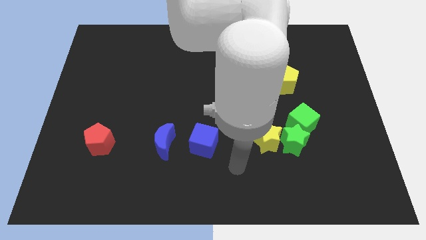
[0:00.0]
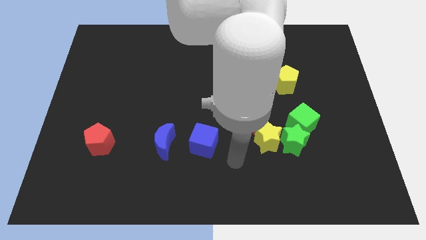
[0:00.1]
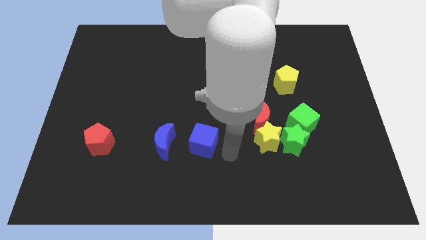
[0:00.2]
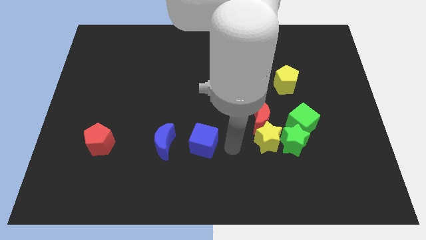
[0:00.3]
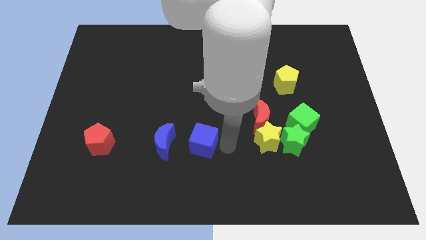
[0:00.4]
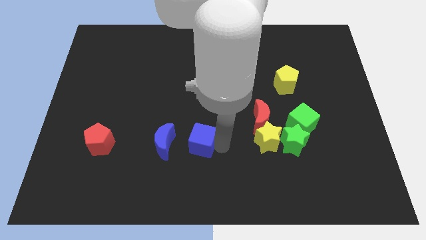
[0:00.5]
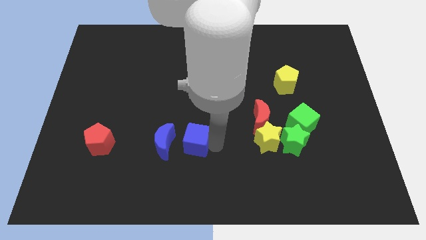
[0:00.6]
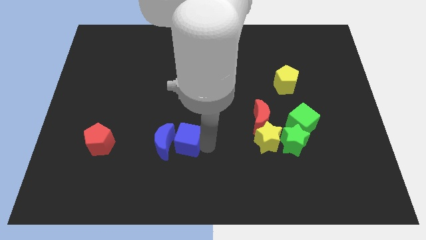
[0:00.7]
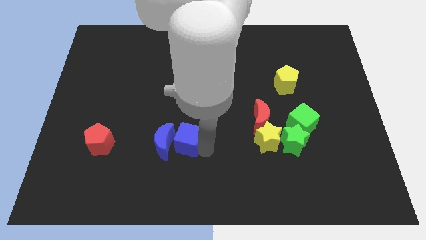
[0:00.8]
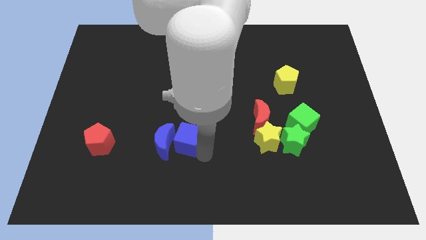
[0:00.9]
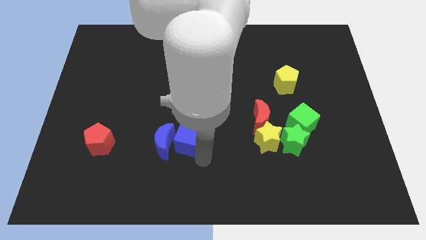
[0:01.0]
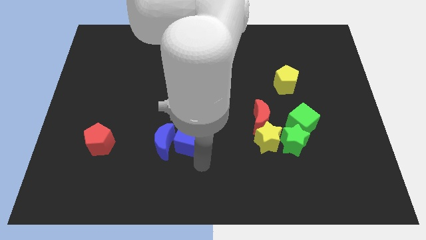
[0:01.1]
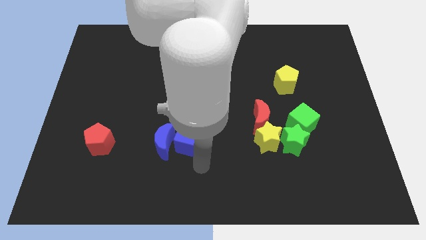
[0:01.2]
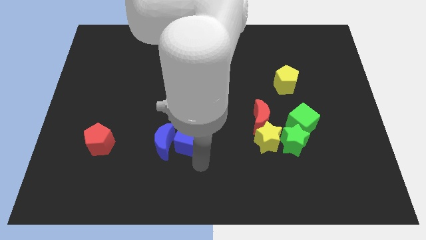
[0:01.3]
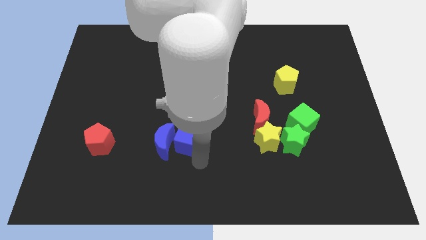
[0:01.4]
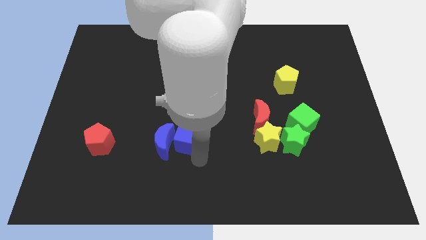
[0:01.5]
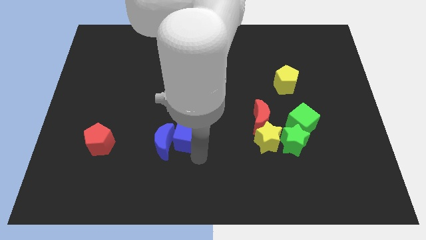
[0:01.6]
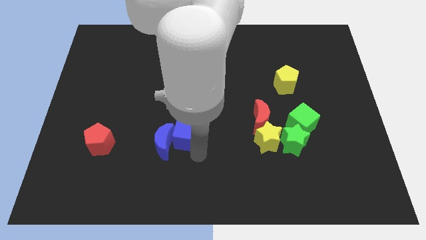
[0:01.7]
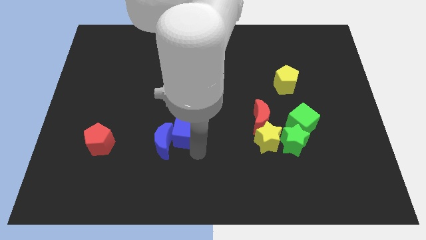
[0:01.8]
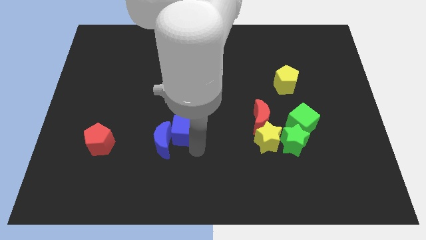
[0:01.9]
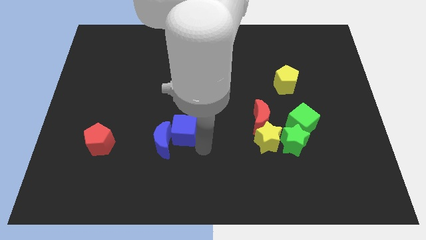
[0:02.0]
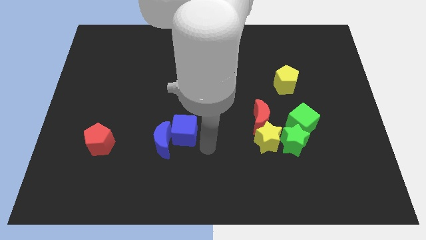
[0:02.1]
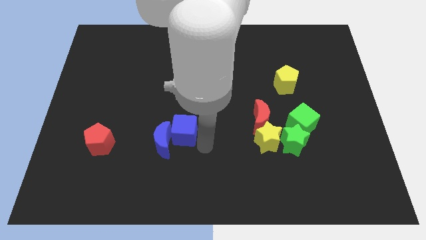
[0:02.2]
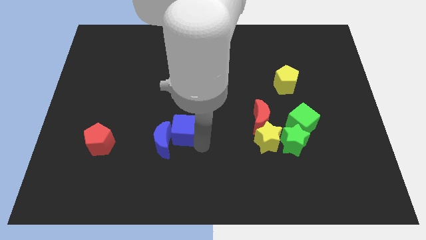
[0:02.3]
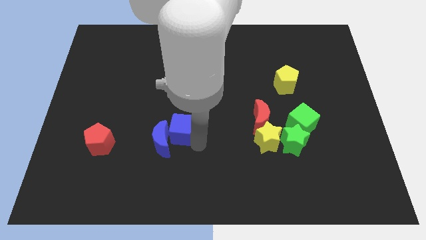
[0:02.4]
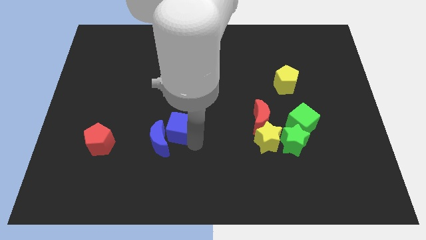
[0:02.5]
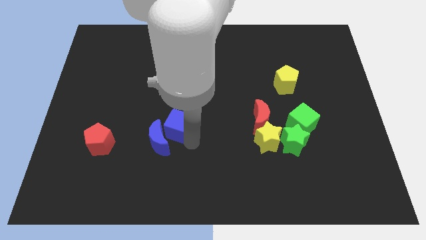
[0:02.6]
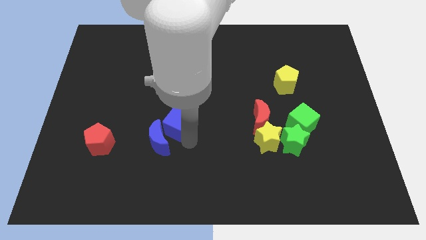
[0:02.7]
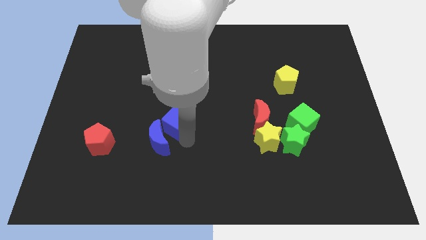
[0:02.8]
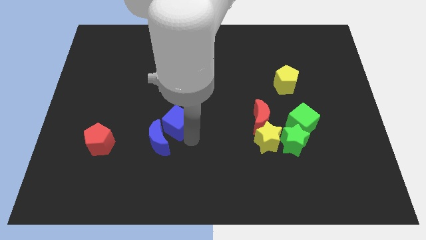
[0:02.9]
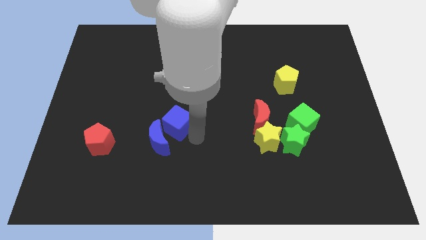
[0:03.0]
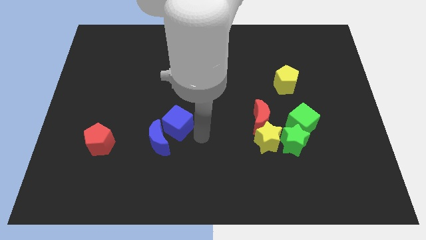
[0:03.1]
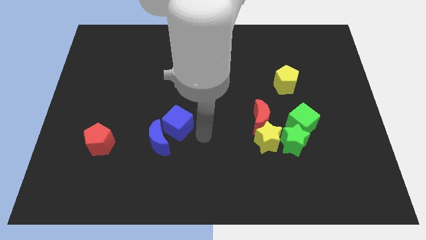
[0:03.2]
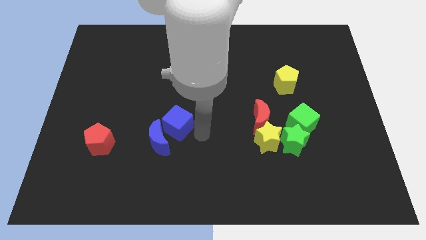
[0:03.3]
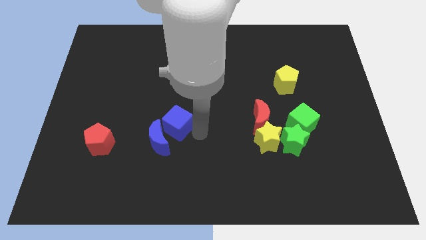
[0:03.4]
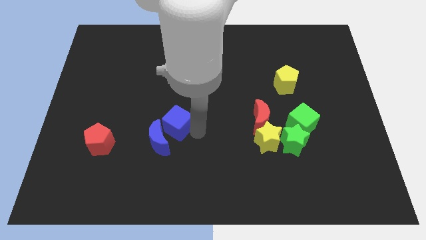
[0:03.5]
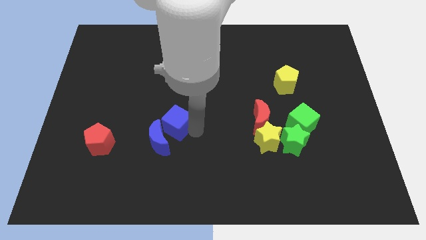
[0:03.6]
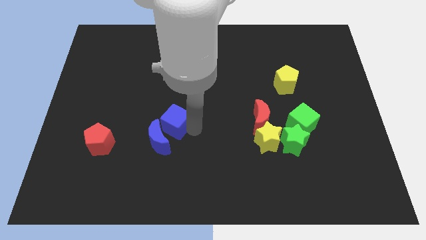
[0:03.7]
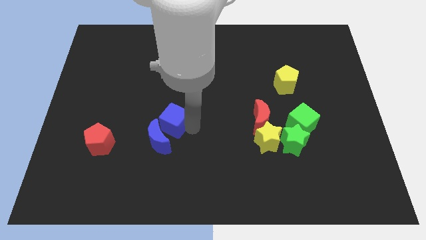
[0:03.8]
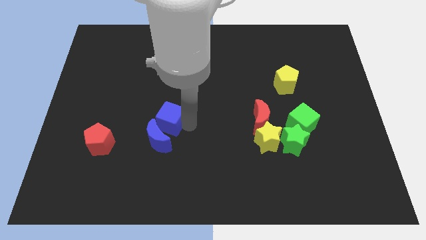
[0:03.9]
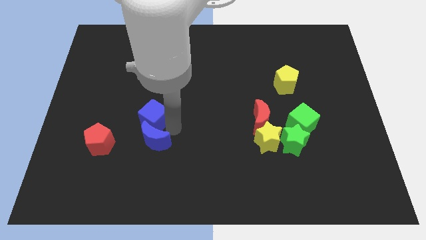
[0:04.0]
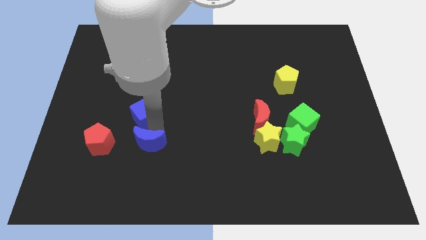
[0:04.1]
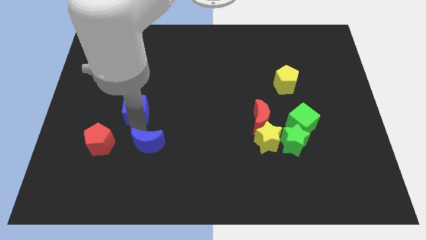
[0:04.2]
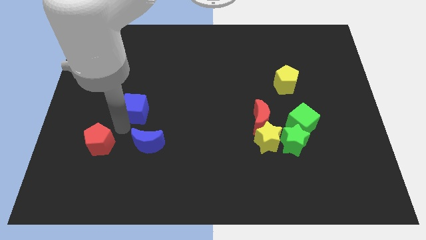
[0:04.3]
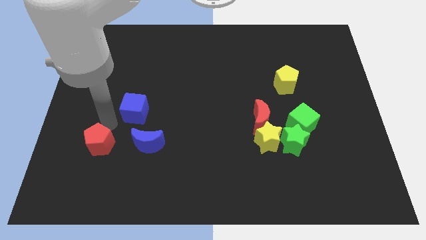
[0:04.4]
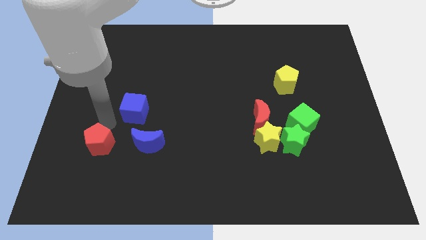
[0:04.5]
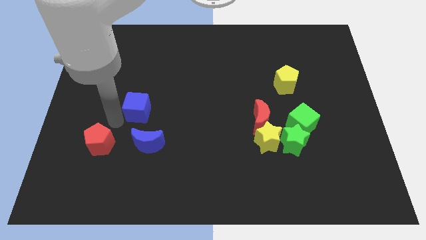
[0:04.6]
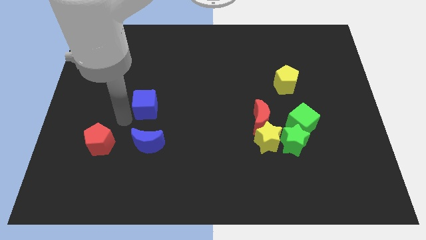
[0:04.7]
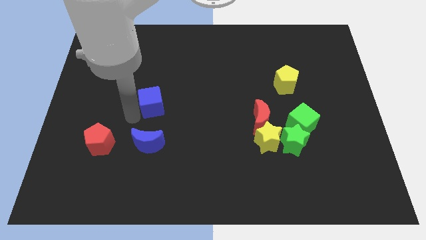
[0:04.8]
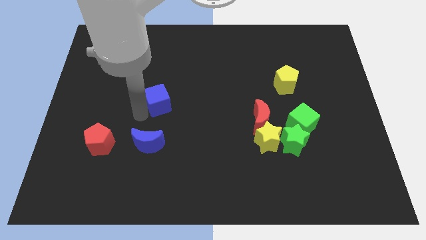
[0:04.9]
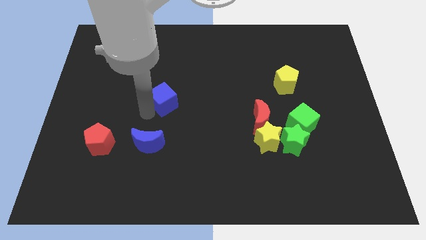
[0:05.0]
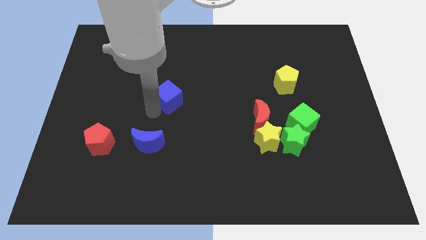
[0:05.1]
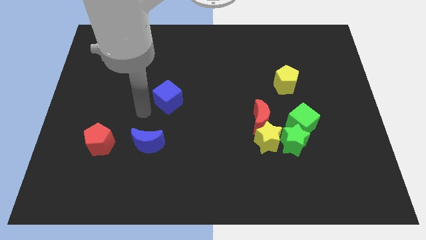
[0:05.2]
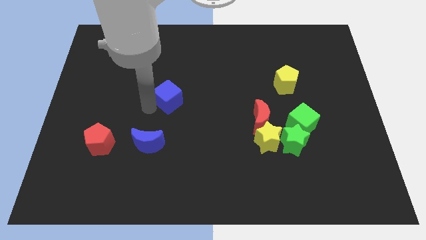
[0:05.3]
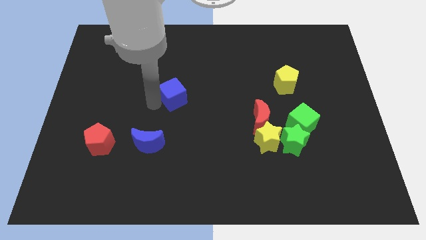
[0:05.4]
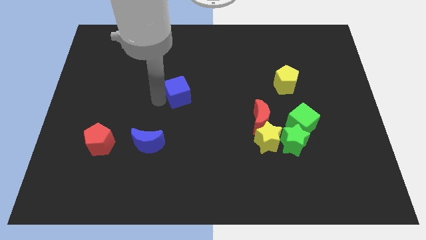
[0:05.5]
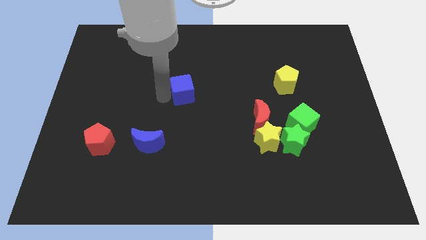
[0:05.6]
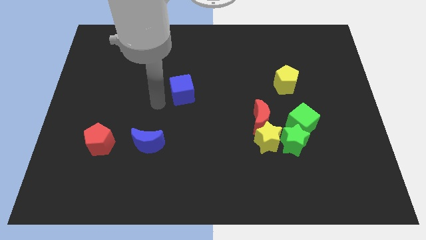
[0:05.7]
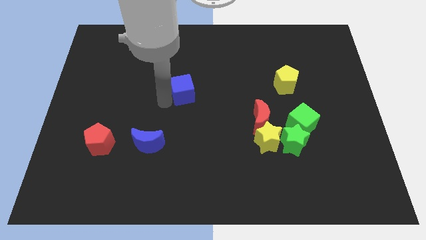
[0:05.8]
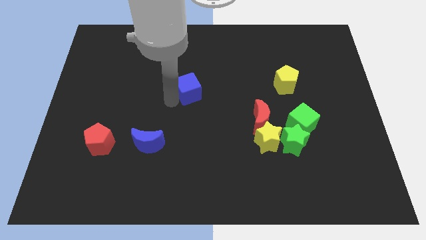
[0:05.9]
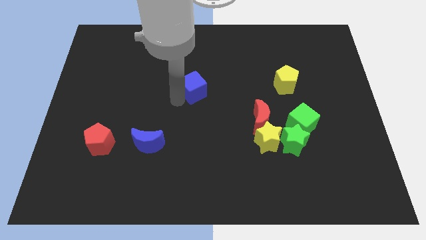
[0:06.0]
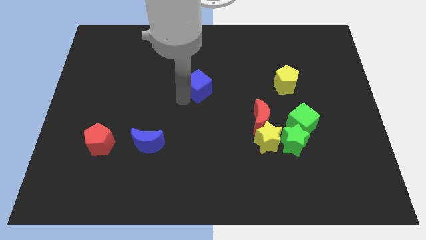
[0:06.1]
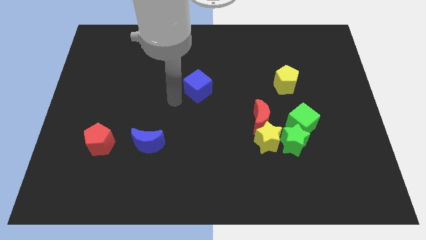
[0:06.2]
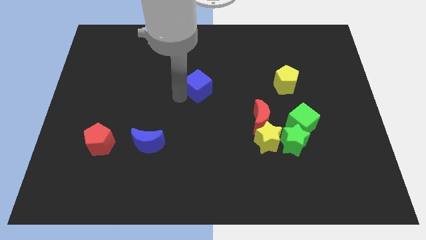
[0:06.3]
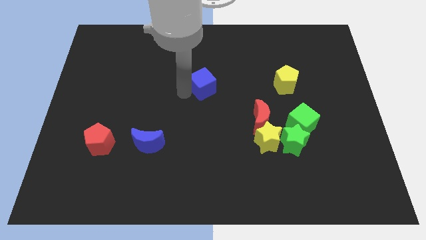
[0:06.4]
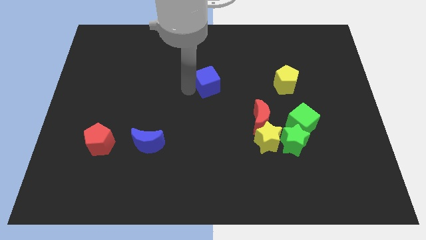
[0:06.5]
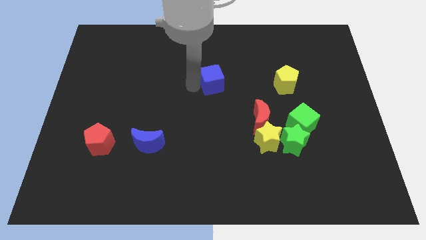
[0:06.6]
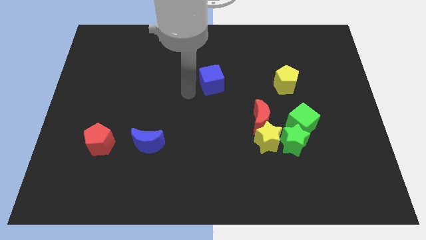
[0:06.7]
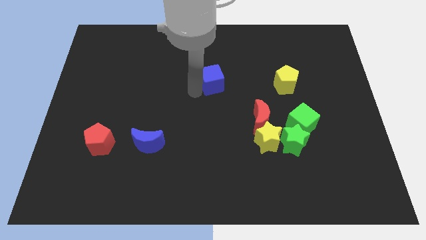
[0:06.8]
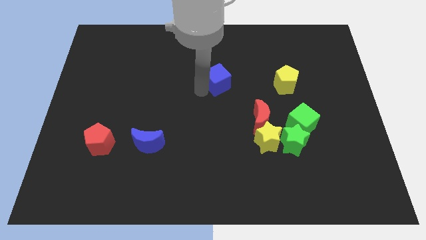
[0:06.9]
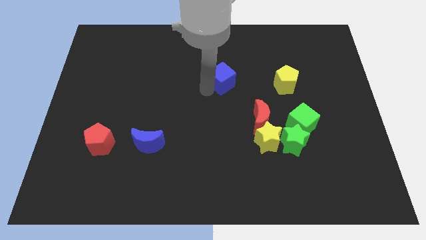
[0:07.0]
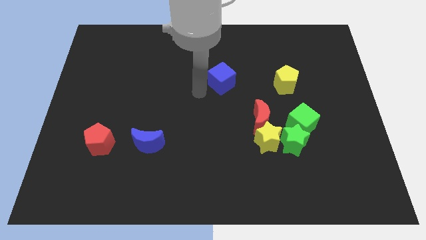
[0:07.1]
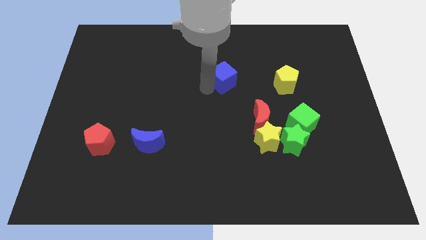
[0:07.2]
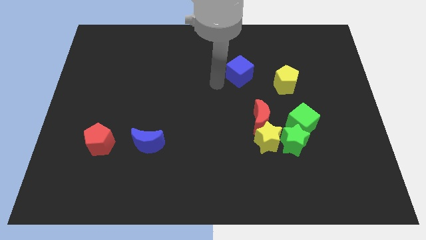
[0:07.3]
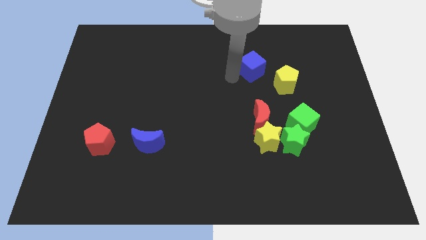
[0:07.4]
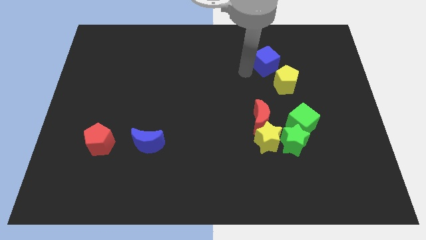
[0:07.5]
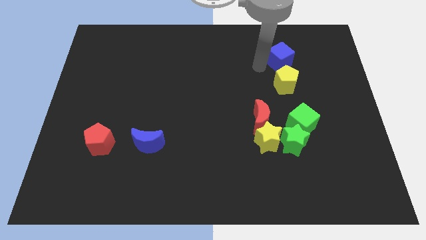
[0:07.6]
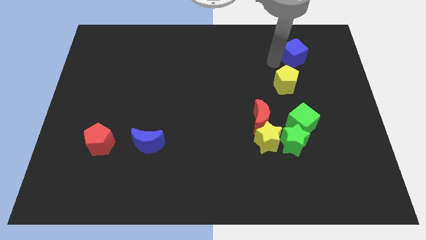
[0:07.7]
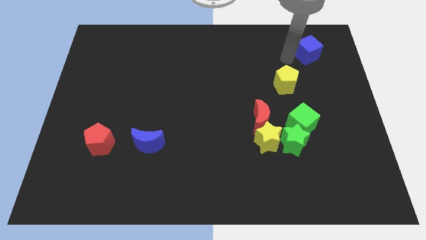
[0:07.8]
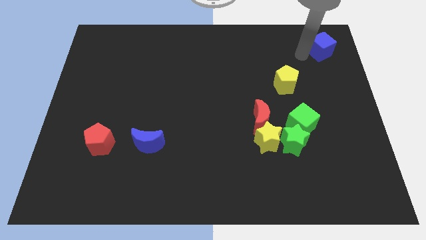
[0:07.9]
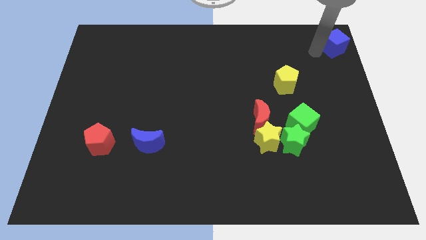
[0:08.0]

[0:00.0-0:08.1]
push the blue cube to the top right
